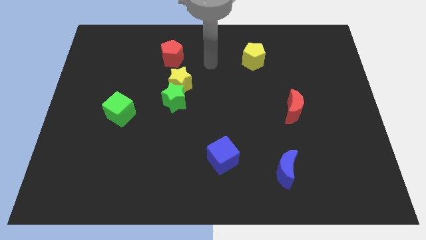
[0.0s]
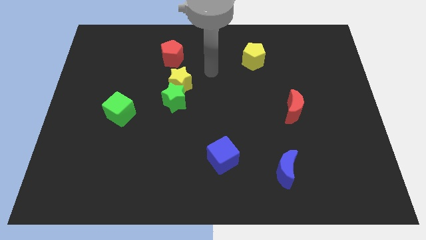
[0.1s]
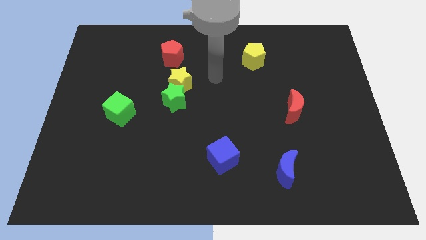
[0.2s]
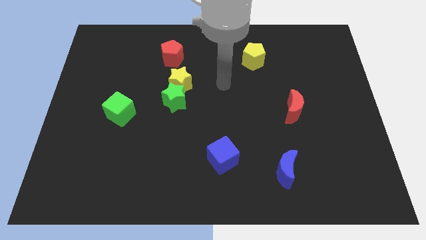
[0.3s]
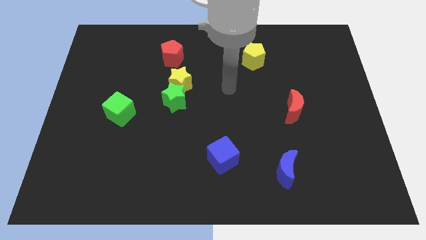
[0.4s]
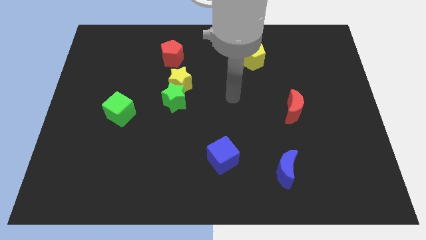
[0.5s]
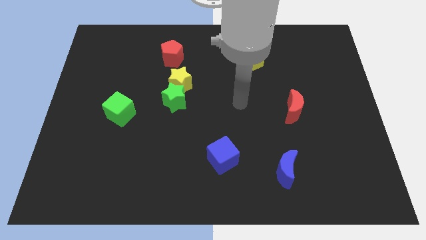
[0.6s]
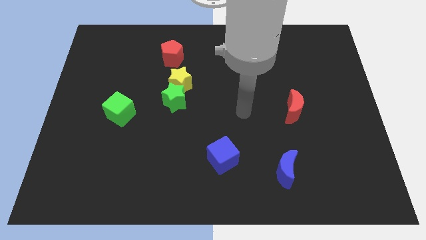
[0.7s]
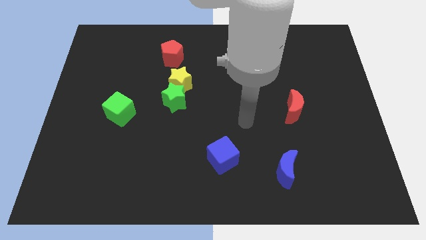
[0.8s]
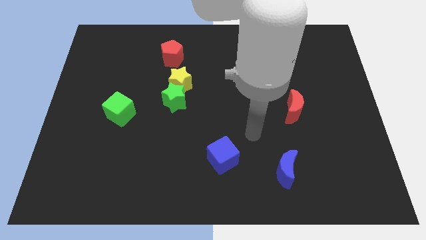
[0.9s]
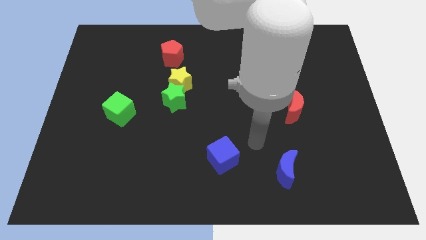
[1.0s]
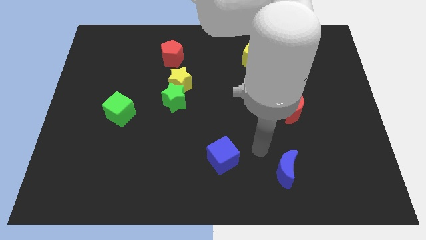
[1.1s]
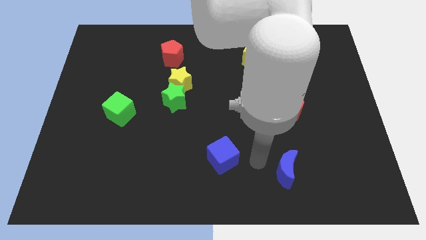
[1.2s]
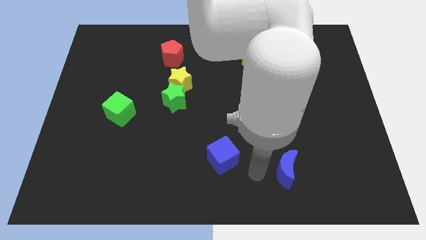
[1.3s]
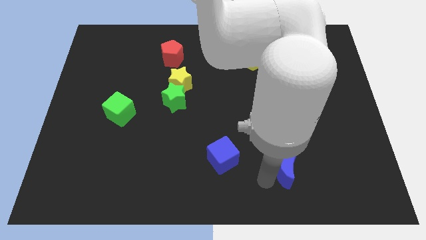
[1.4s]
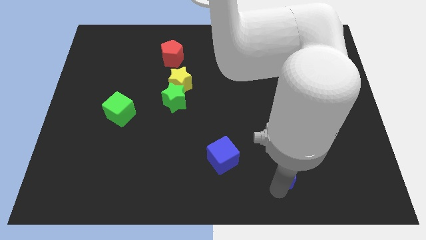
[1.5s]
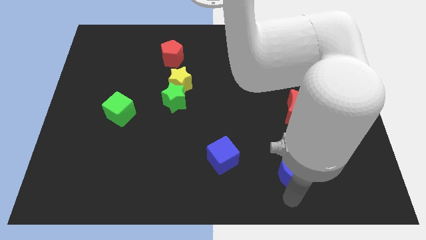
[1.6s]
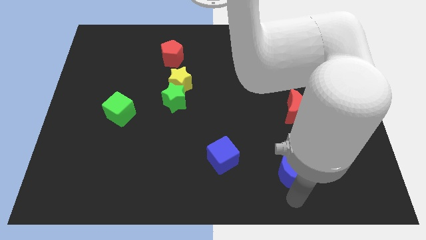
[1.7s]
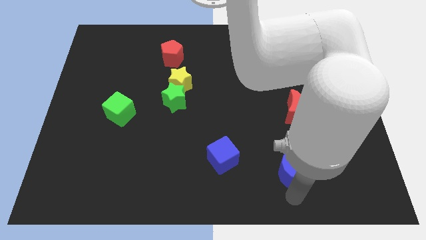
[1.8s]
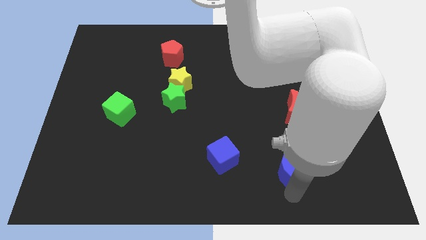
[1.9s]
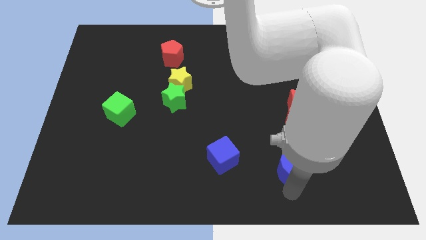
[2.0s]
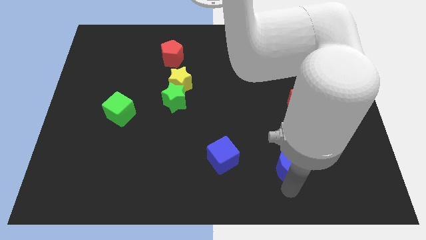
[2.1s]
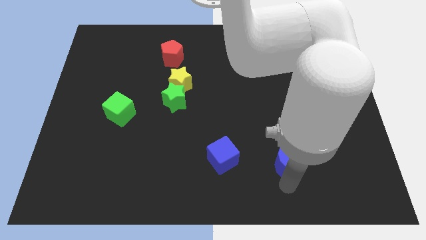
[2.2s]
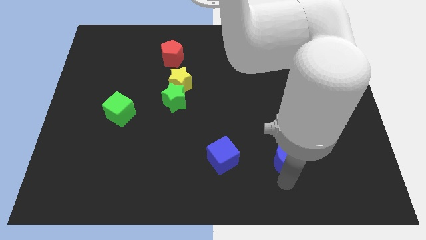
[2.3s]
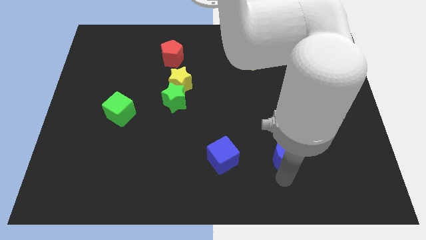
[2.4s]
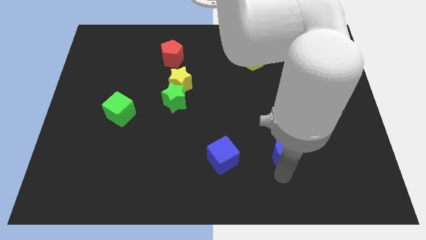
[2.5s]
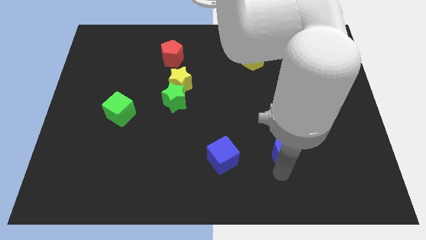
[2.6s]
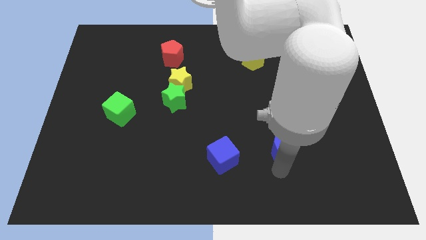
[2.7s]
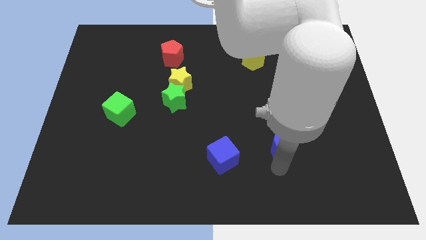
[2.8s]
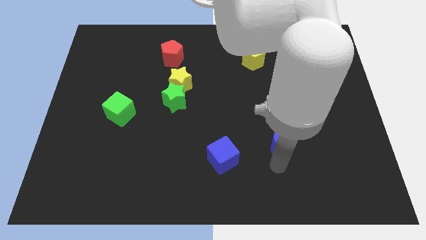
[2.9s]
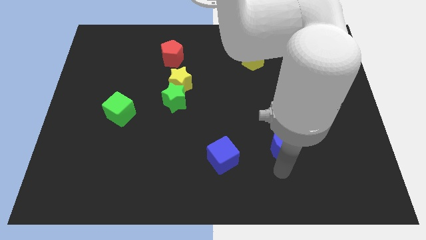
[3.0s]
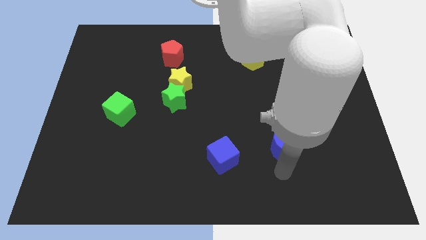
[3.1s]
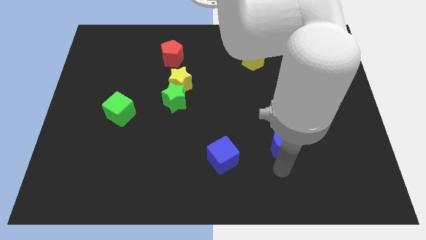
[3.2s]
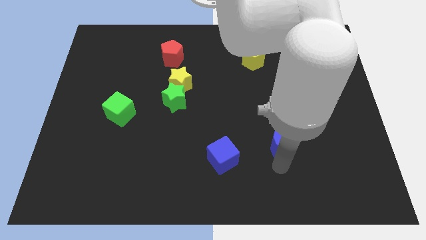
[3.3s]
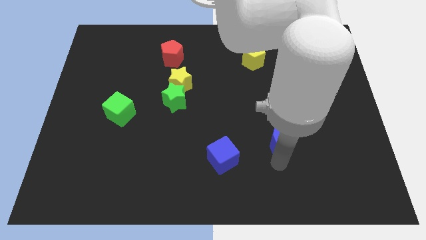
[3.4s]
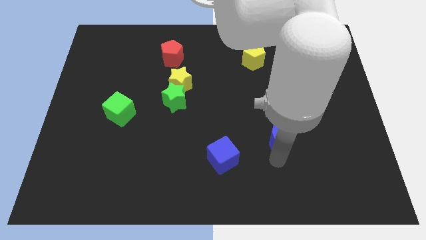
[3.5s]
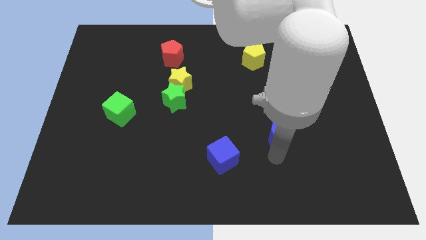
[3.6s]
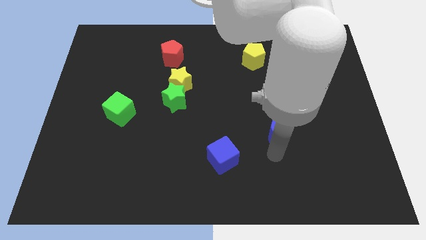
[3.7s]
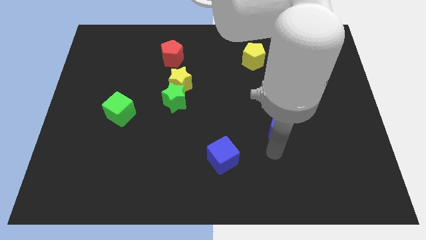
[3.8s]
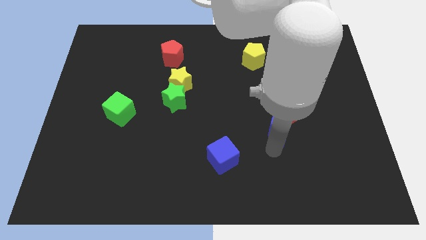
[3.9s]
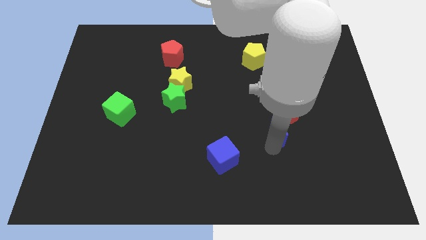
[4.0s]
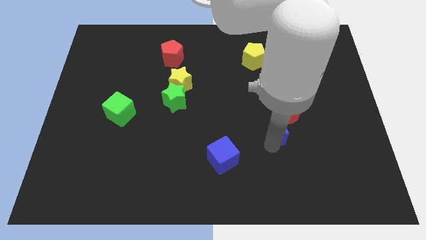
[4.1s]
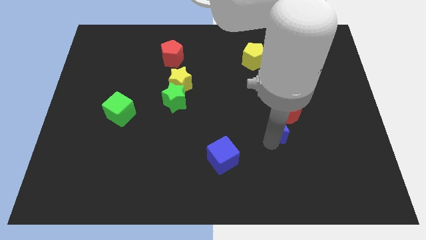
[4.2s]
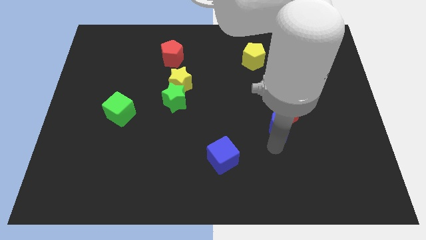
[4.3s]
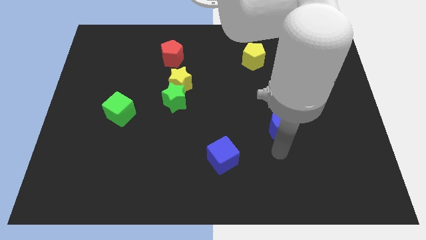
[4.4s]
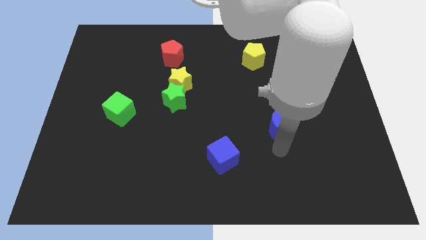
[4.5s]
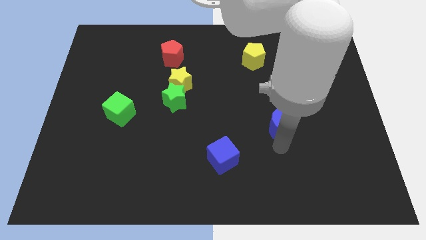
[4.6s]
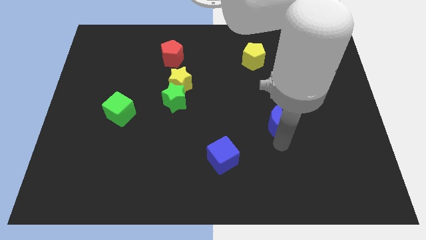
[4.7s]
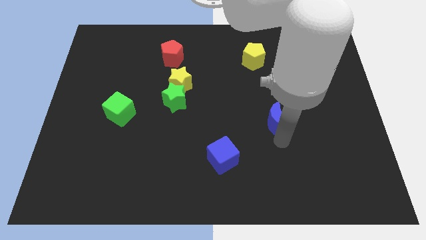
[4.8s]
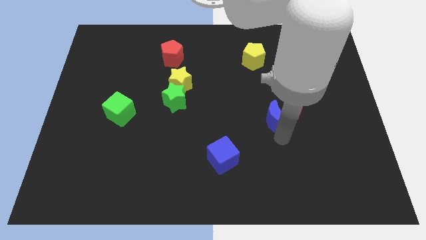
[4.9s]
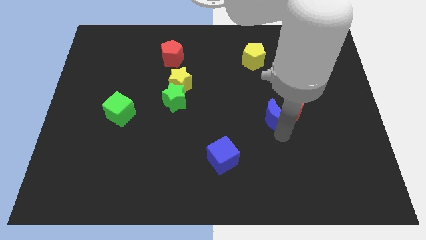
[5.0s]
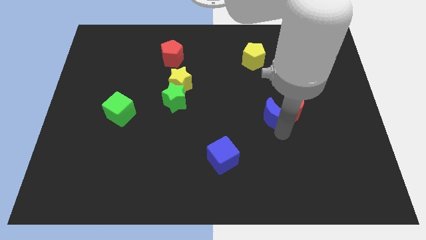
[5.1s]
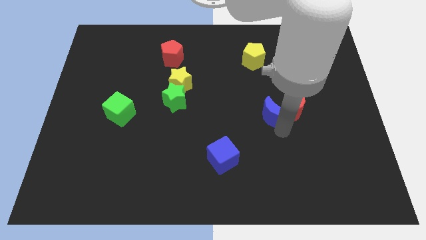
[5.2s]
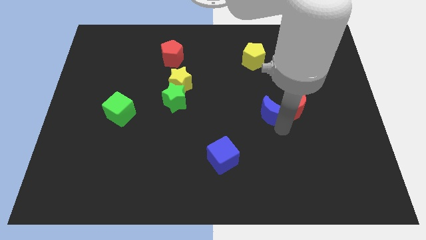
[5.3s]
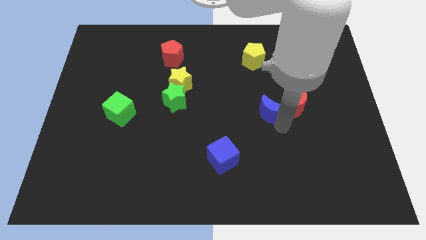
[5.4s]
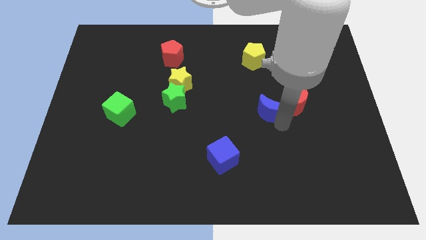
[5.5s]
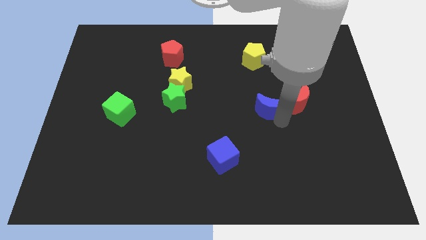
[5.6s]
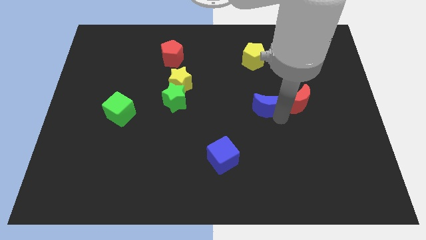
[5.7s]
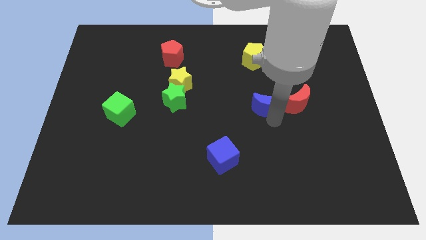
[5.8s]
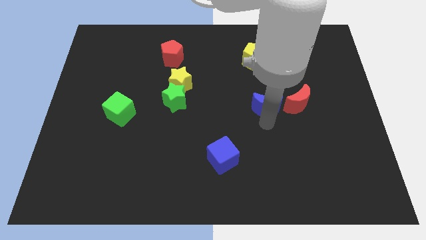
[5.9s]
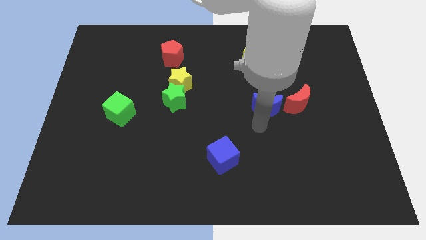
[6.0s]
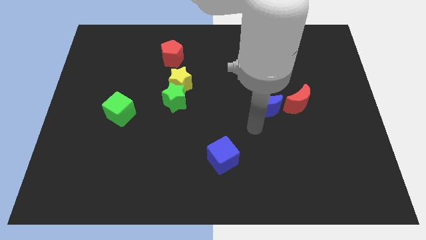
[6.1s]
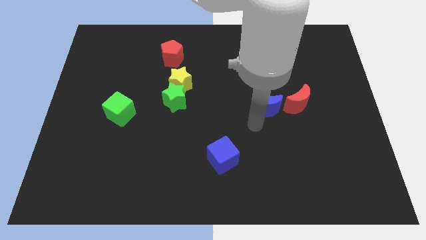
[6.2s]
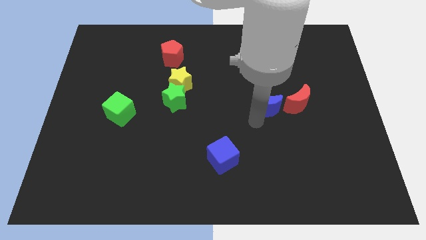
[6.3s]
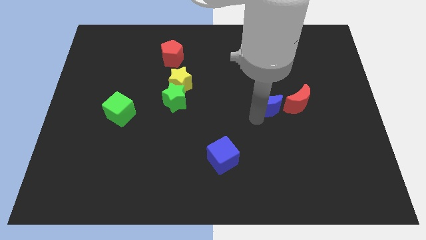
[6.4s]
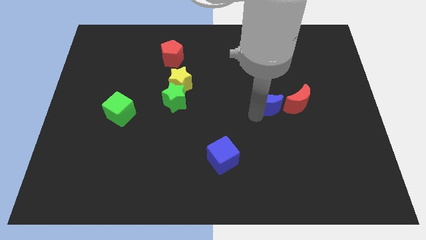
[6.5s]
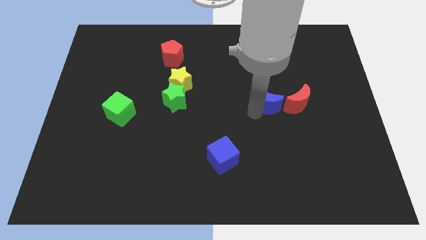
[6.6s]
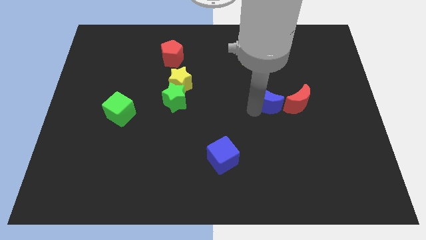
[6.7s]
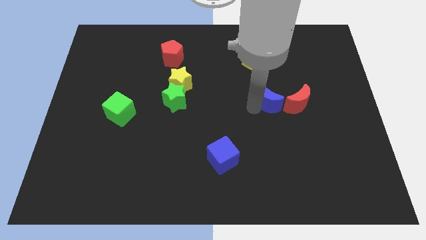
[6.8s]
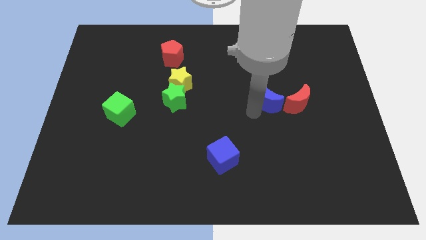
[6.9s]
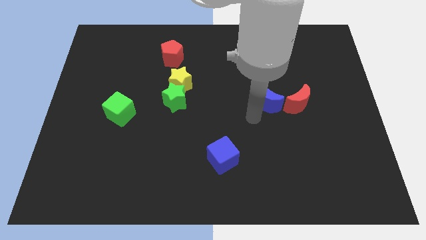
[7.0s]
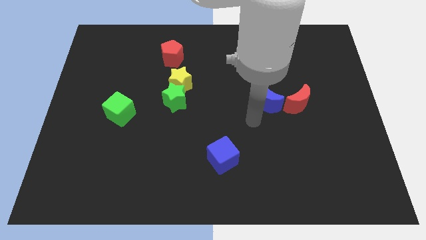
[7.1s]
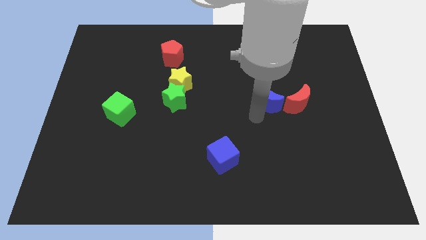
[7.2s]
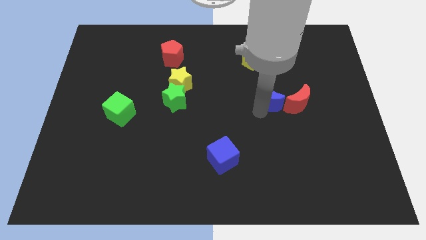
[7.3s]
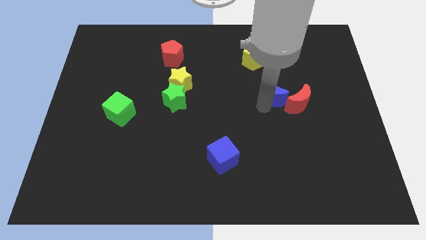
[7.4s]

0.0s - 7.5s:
push the blue moon up

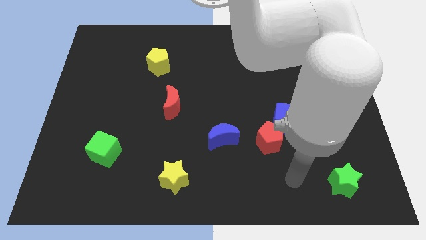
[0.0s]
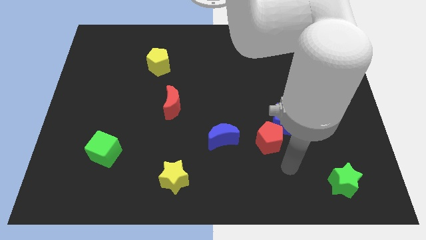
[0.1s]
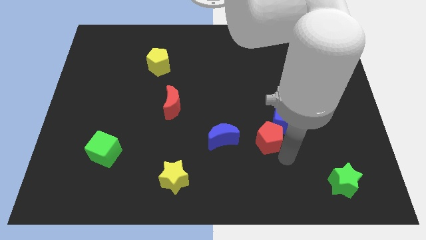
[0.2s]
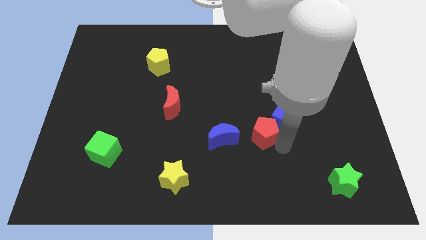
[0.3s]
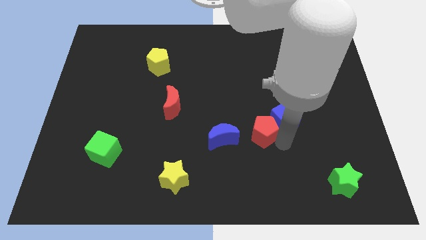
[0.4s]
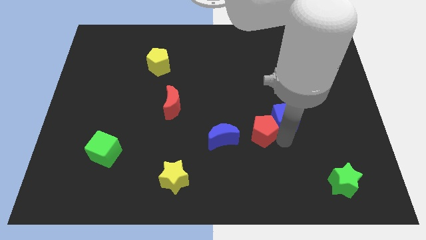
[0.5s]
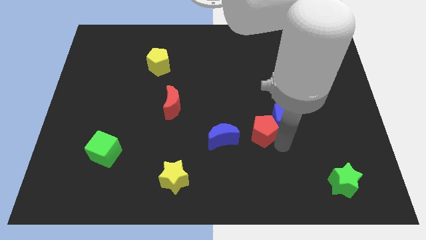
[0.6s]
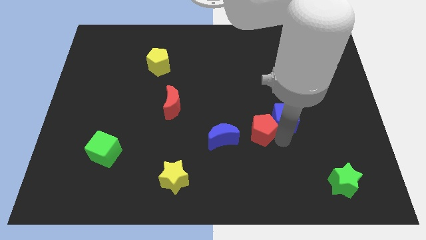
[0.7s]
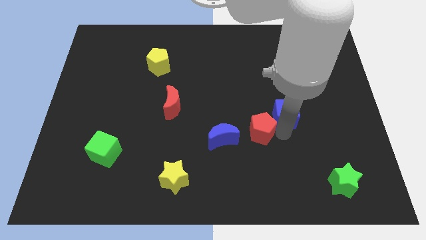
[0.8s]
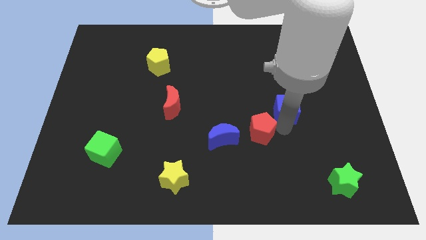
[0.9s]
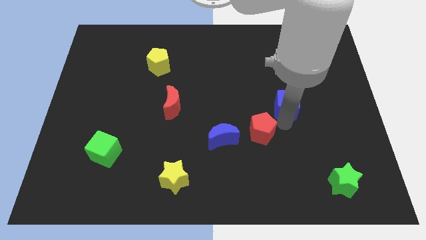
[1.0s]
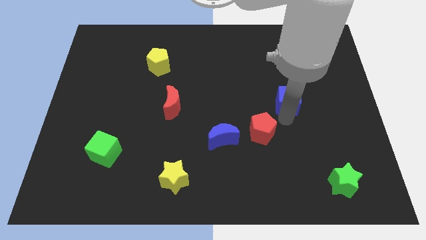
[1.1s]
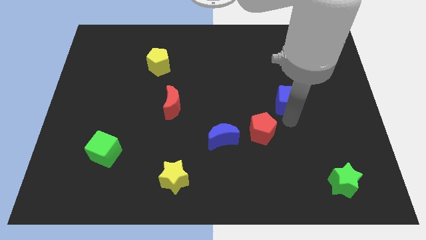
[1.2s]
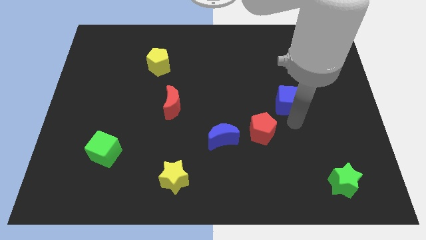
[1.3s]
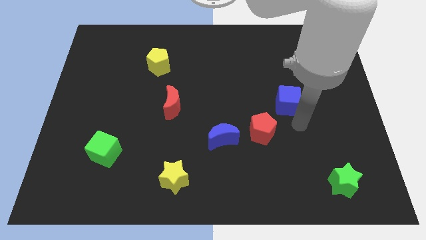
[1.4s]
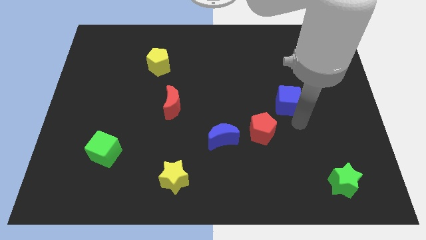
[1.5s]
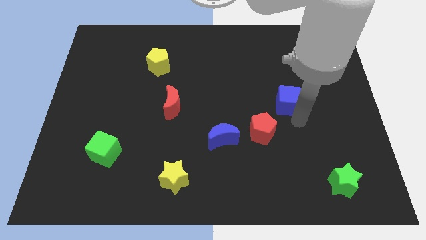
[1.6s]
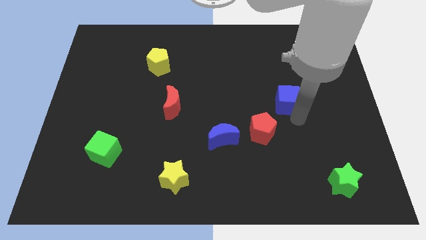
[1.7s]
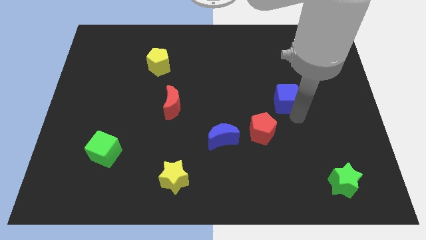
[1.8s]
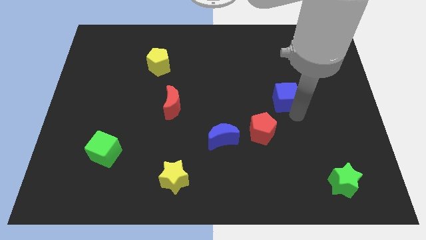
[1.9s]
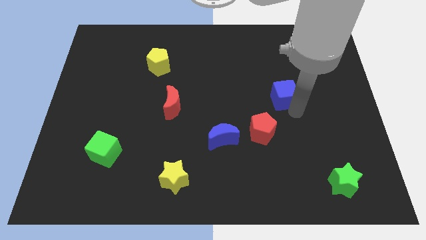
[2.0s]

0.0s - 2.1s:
move the blue cube up somewhat
